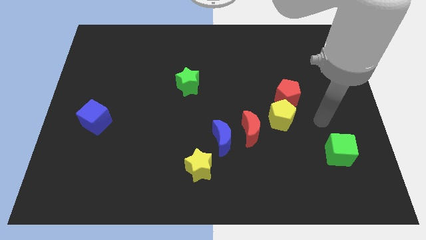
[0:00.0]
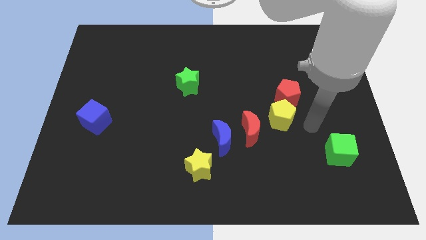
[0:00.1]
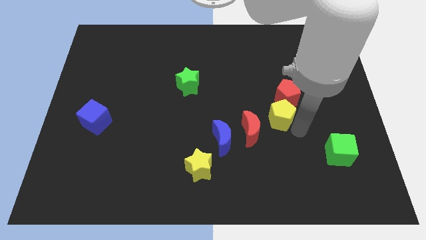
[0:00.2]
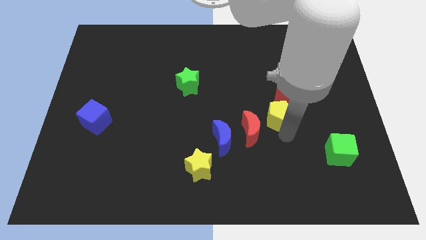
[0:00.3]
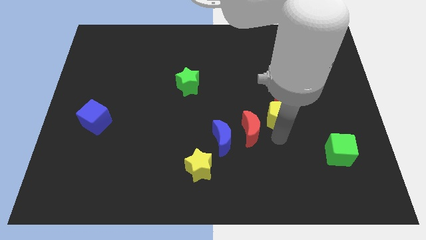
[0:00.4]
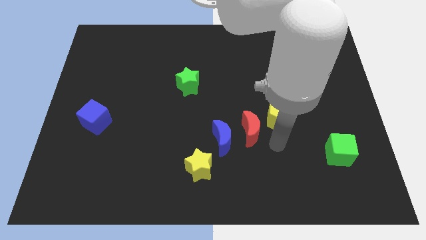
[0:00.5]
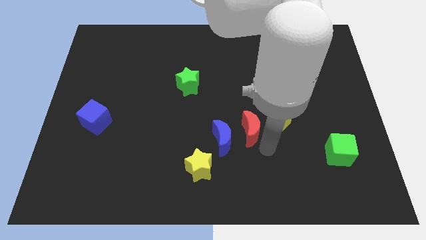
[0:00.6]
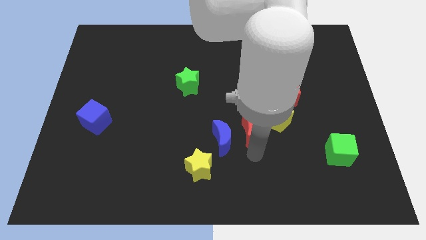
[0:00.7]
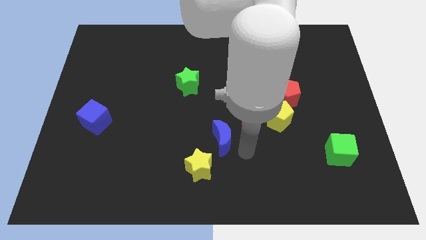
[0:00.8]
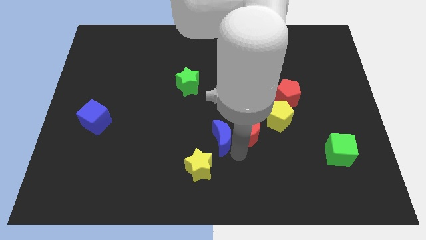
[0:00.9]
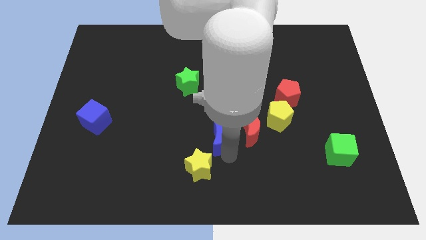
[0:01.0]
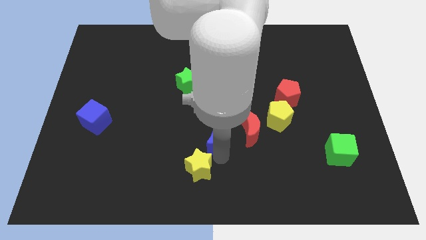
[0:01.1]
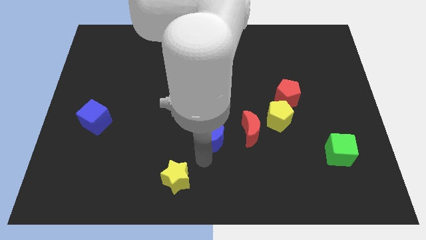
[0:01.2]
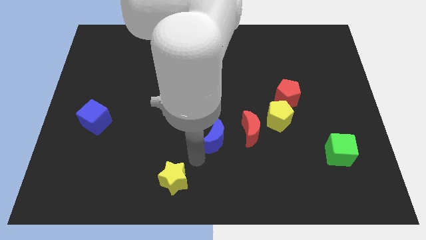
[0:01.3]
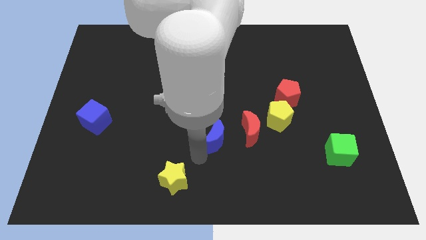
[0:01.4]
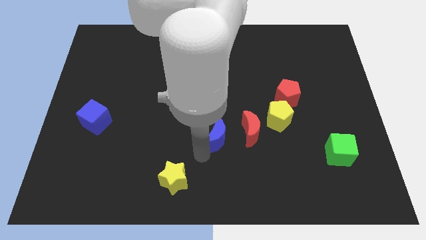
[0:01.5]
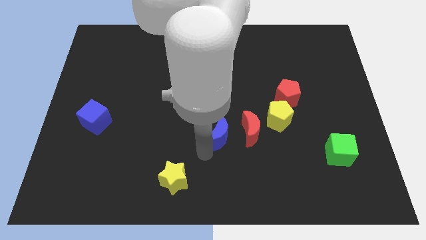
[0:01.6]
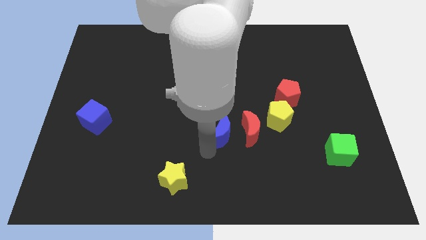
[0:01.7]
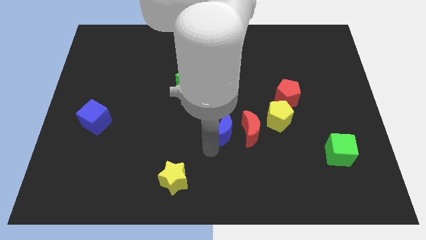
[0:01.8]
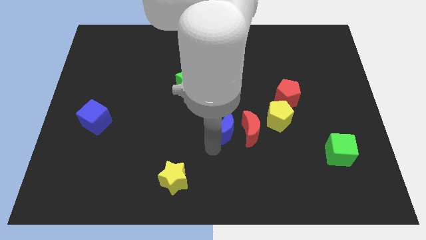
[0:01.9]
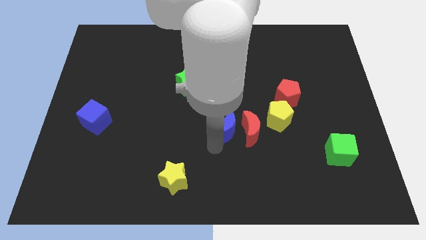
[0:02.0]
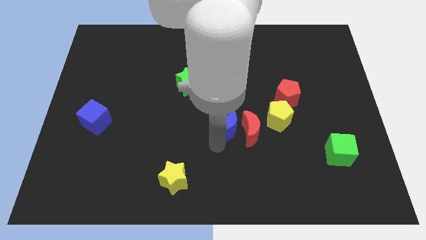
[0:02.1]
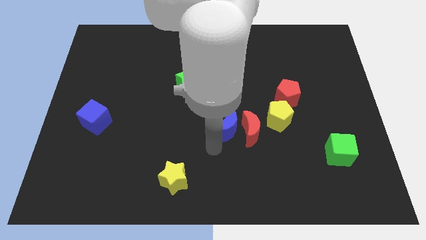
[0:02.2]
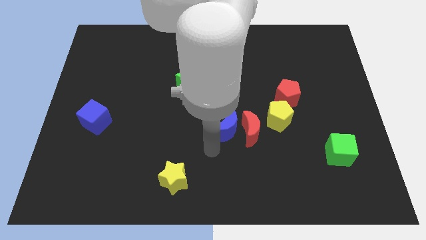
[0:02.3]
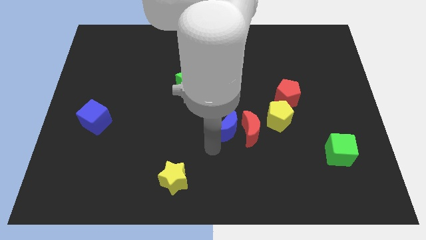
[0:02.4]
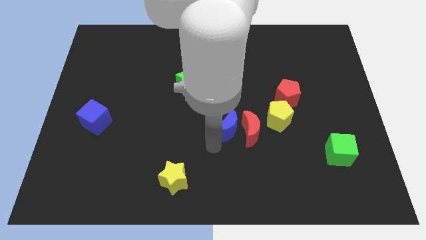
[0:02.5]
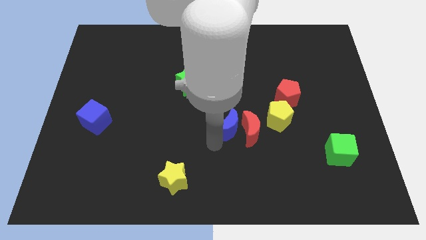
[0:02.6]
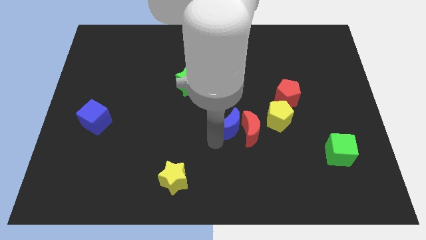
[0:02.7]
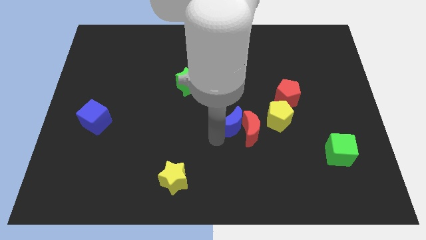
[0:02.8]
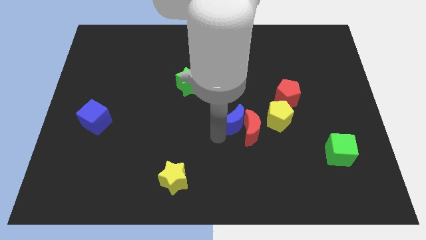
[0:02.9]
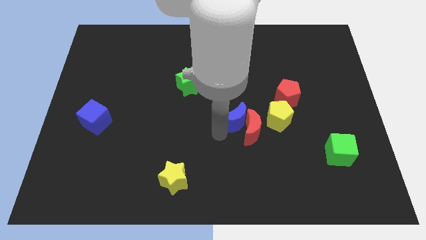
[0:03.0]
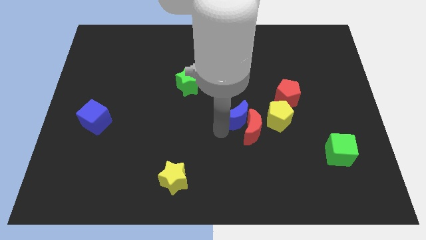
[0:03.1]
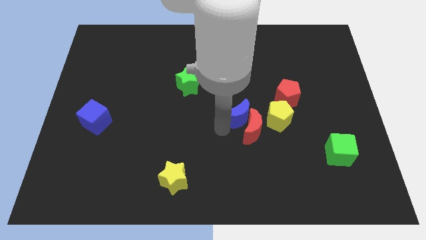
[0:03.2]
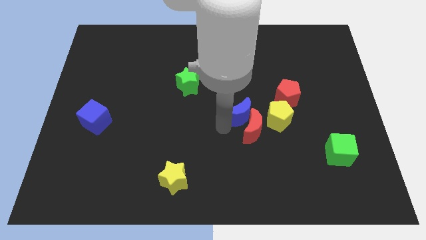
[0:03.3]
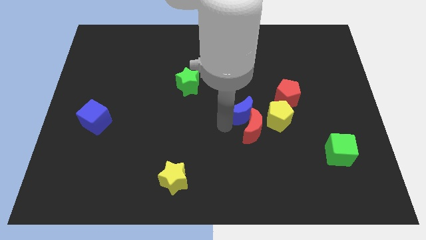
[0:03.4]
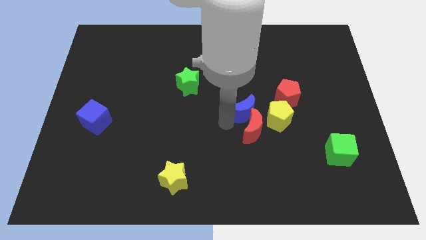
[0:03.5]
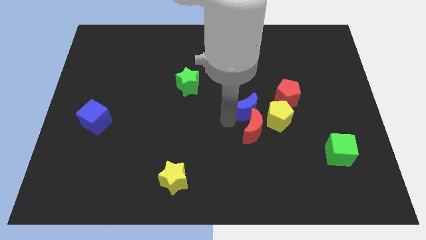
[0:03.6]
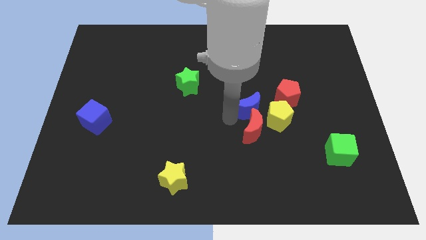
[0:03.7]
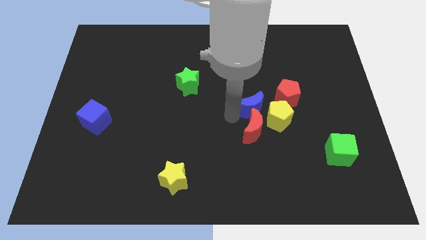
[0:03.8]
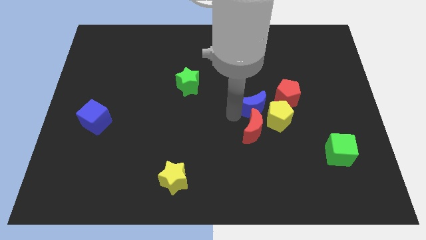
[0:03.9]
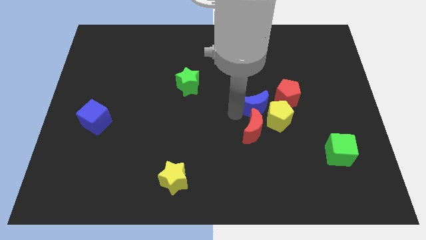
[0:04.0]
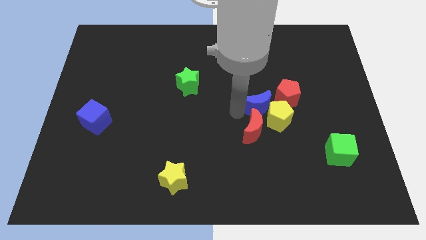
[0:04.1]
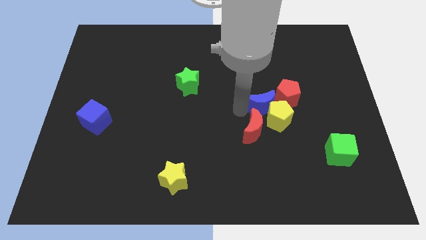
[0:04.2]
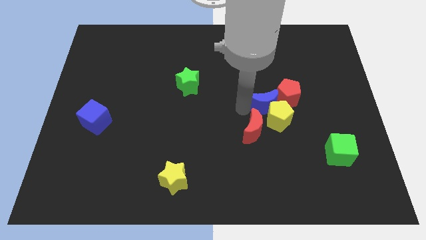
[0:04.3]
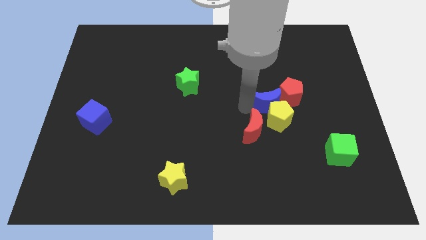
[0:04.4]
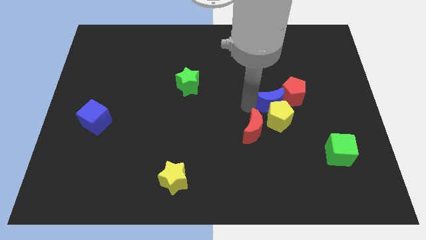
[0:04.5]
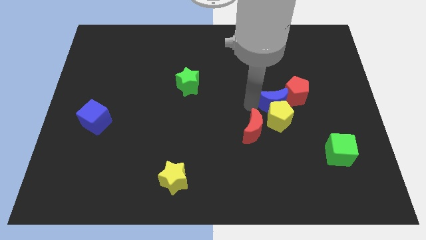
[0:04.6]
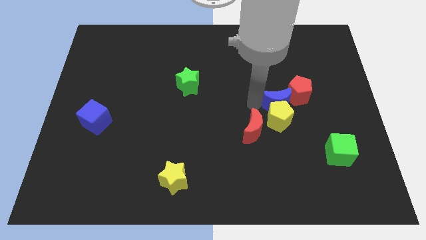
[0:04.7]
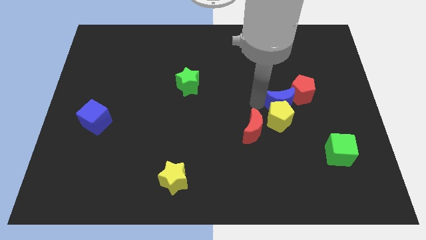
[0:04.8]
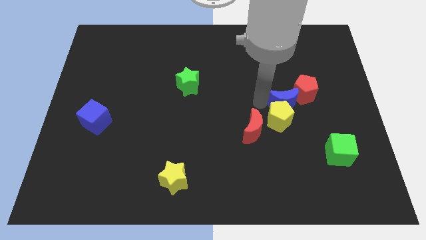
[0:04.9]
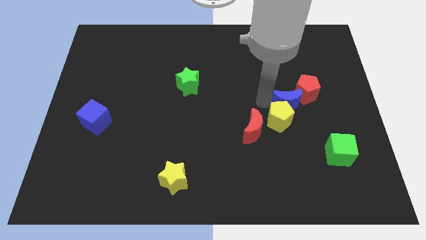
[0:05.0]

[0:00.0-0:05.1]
push the blue moon towards the red pentagon

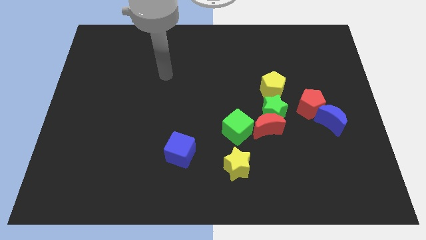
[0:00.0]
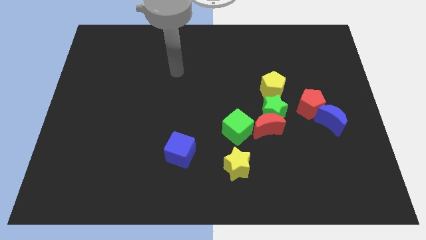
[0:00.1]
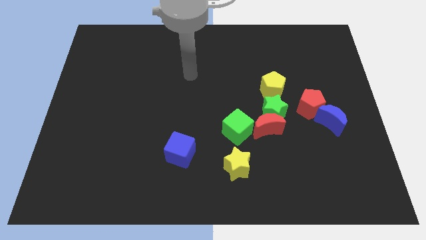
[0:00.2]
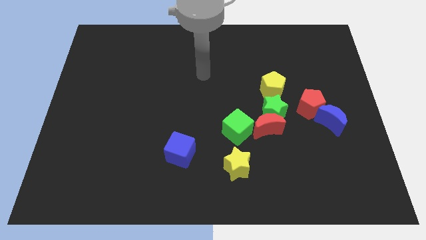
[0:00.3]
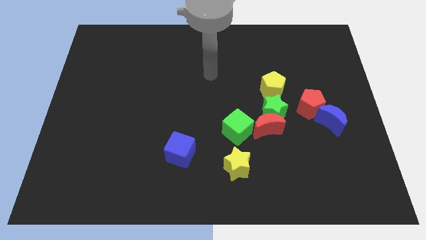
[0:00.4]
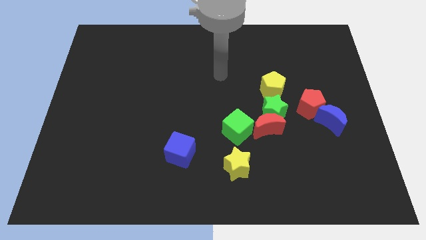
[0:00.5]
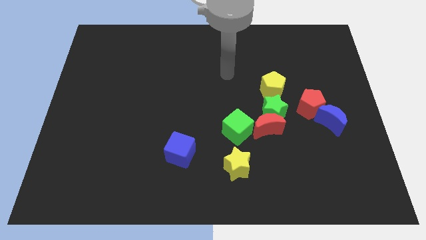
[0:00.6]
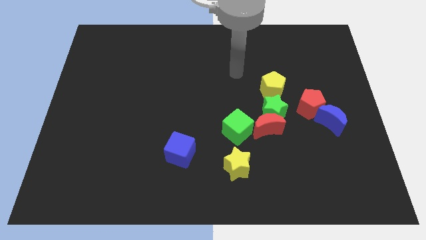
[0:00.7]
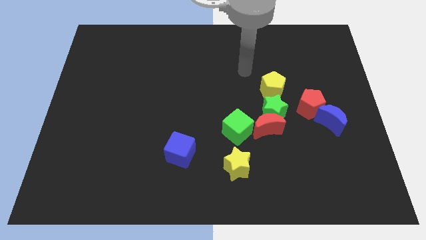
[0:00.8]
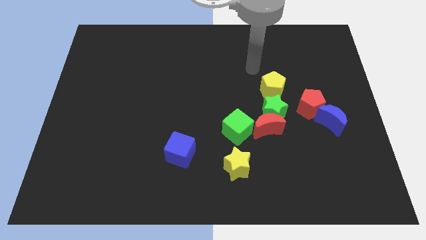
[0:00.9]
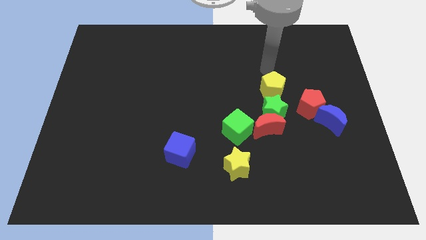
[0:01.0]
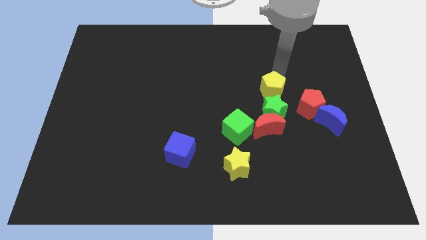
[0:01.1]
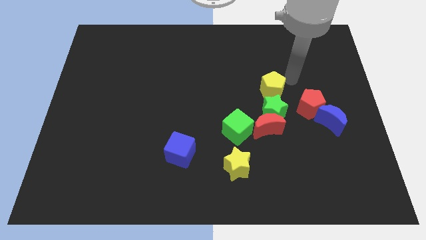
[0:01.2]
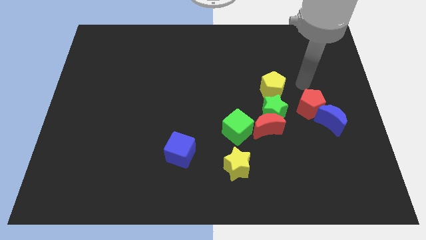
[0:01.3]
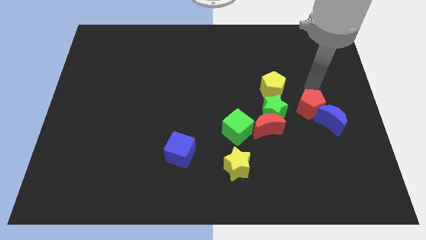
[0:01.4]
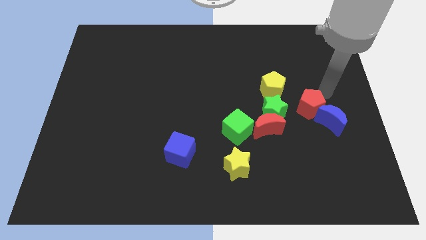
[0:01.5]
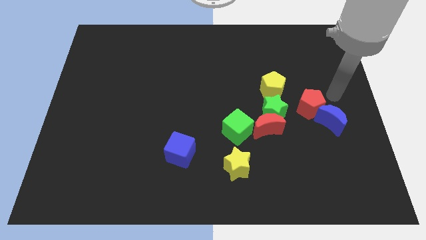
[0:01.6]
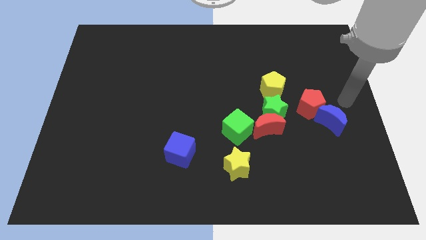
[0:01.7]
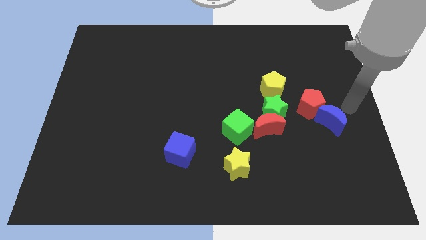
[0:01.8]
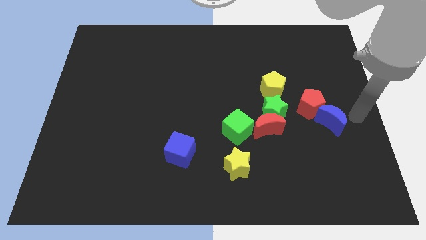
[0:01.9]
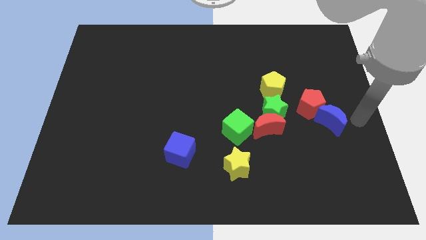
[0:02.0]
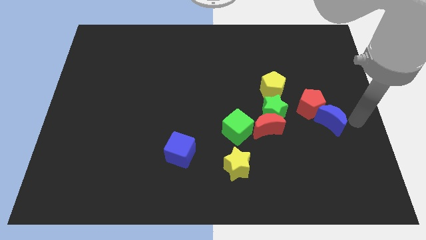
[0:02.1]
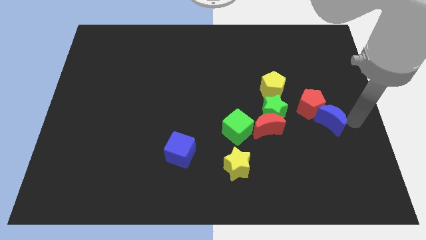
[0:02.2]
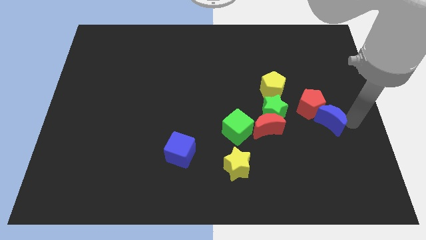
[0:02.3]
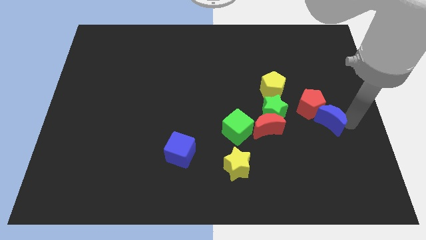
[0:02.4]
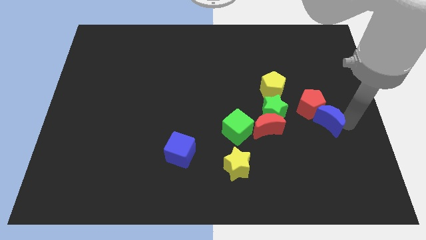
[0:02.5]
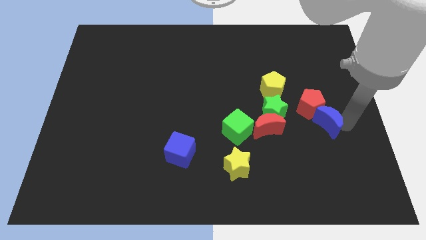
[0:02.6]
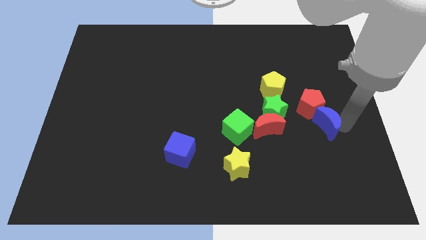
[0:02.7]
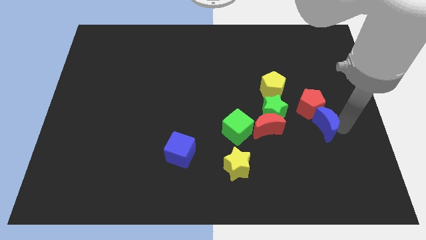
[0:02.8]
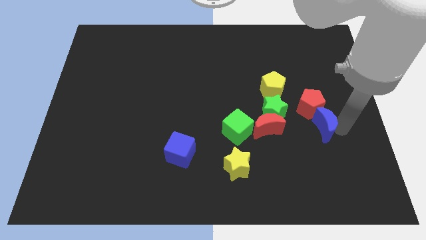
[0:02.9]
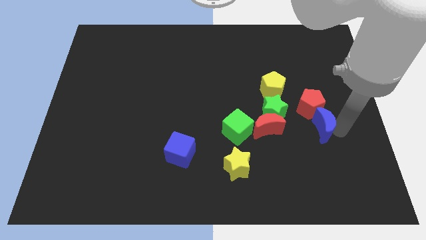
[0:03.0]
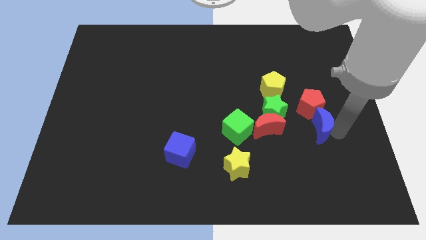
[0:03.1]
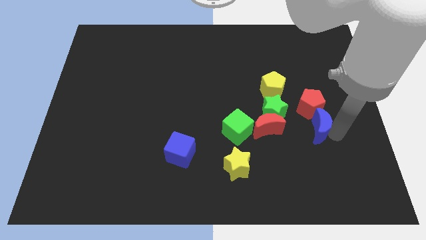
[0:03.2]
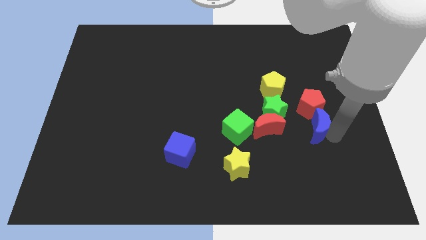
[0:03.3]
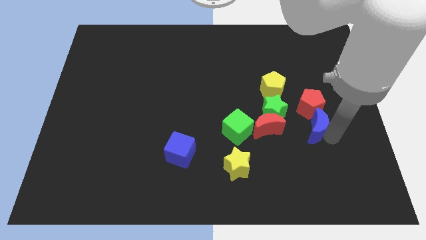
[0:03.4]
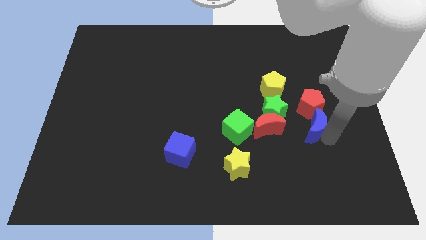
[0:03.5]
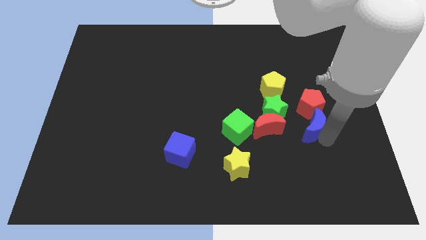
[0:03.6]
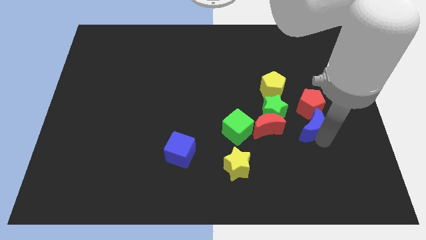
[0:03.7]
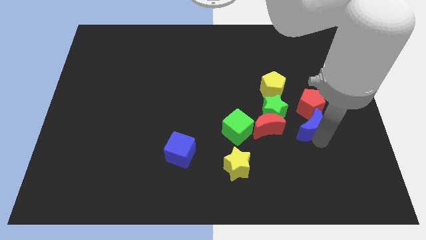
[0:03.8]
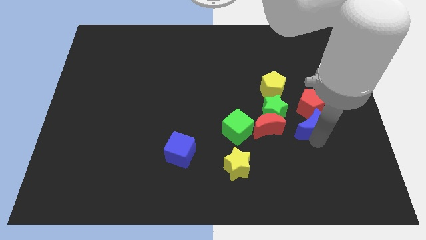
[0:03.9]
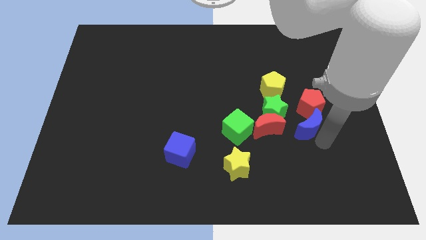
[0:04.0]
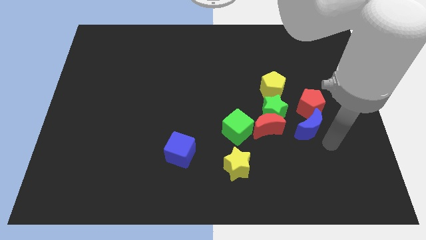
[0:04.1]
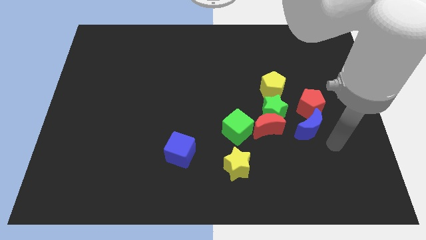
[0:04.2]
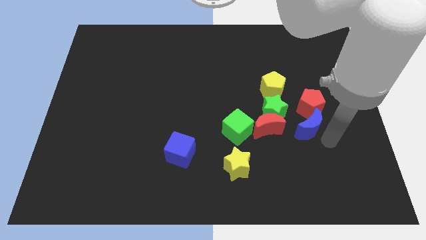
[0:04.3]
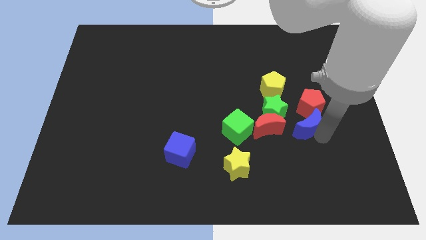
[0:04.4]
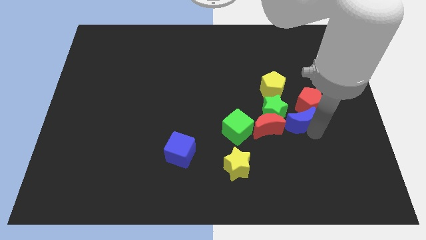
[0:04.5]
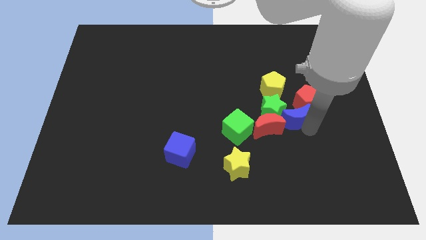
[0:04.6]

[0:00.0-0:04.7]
move the blue moon to the green star
